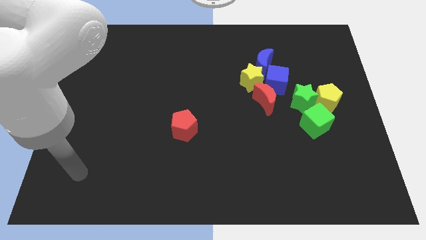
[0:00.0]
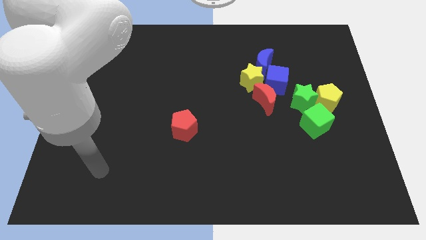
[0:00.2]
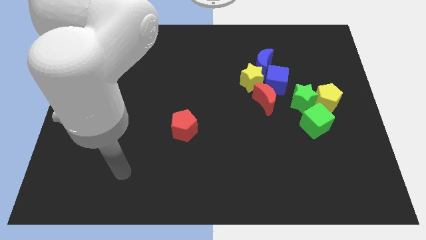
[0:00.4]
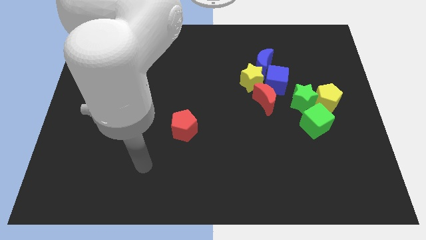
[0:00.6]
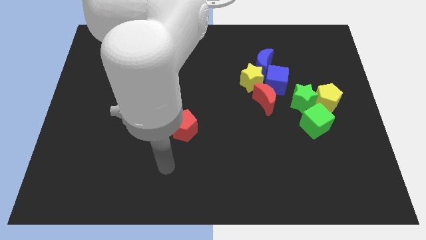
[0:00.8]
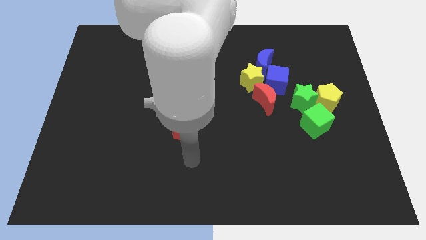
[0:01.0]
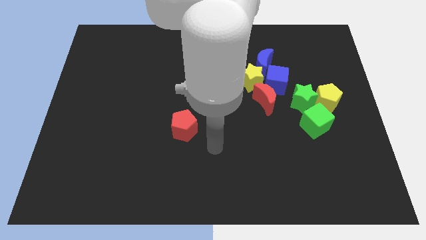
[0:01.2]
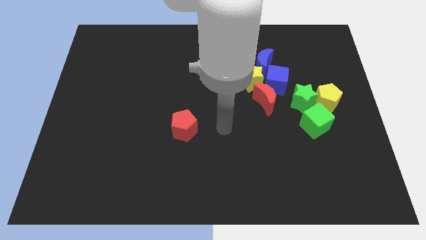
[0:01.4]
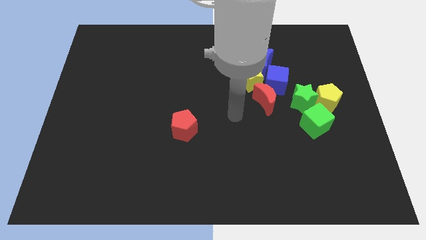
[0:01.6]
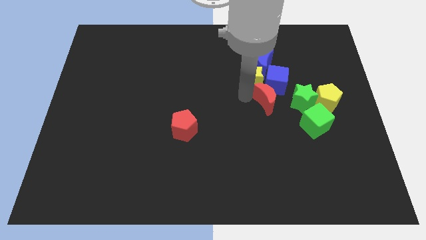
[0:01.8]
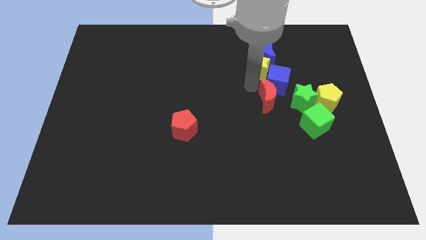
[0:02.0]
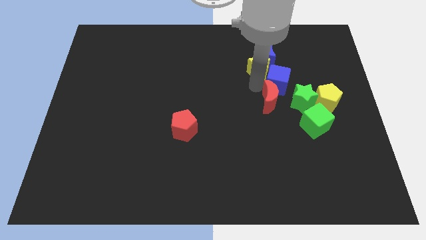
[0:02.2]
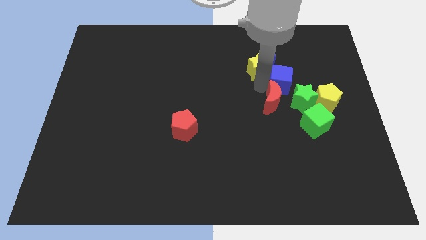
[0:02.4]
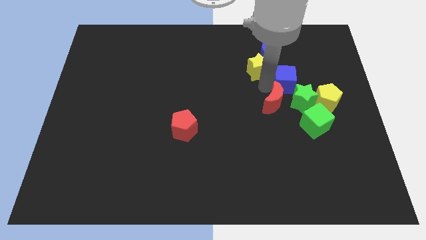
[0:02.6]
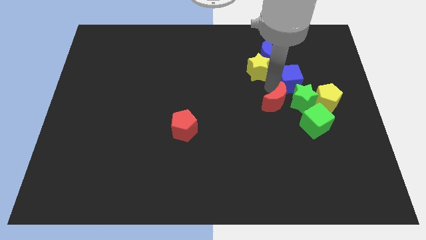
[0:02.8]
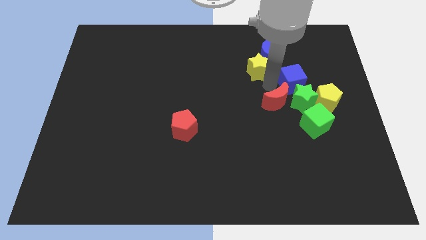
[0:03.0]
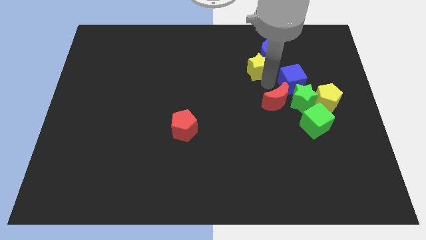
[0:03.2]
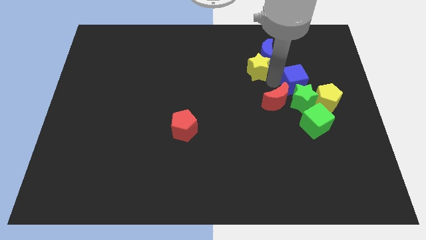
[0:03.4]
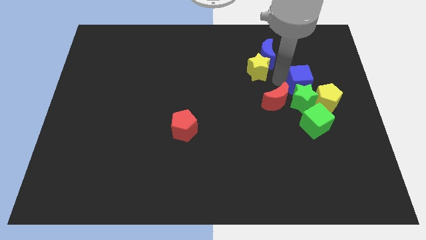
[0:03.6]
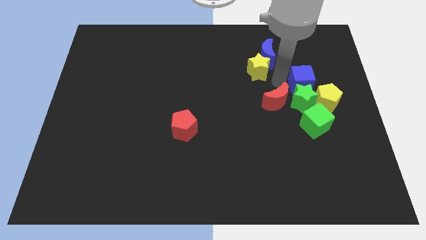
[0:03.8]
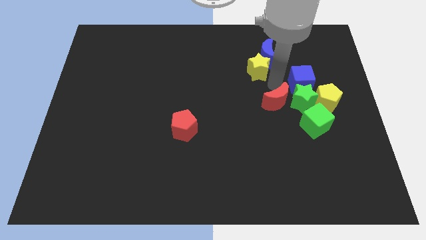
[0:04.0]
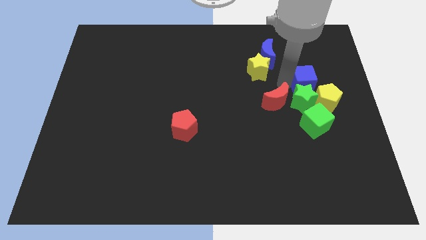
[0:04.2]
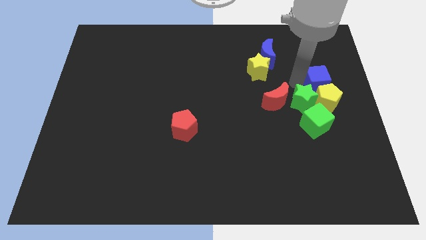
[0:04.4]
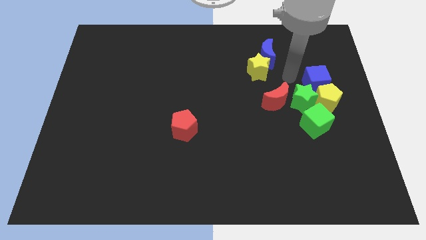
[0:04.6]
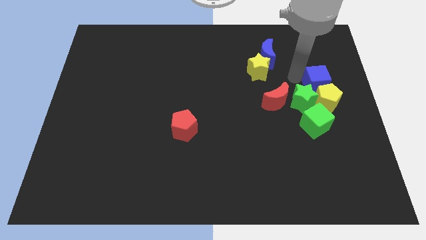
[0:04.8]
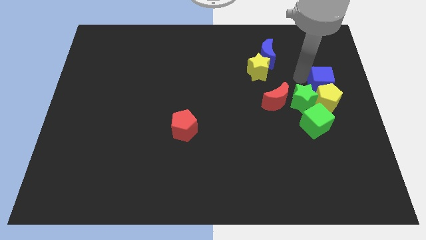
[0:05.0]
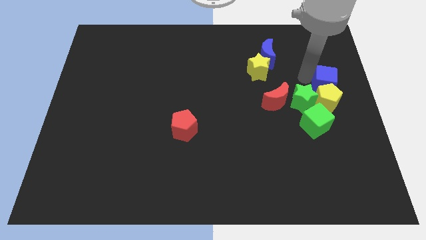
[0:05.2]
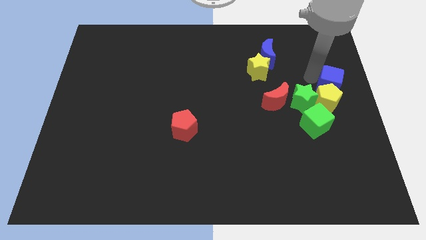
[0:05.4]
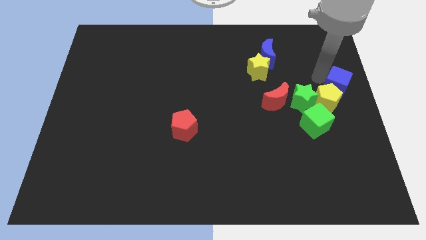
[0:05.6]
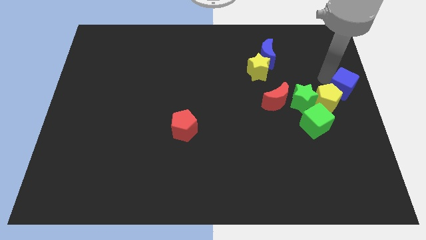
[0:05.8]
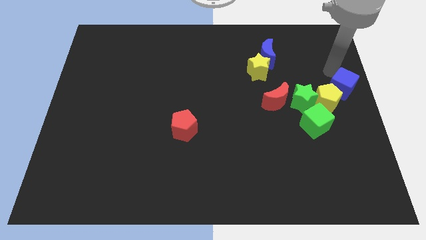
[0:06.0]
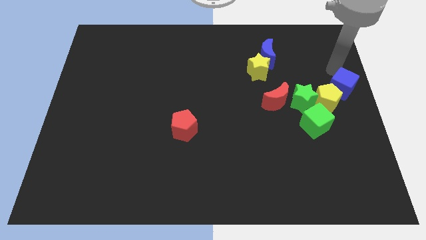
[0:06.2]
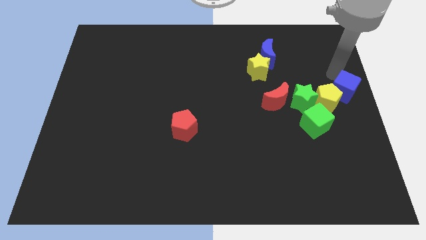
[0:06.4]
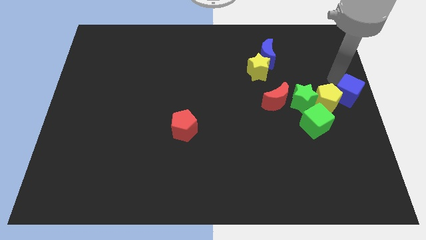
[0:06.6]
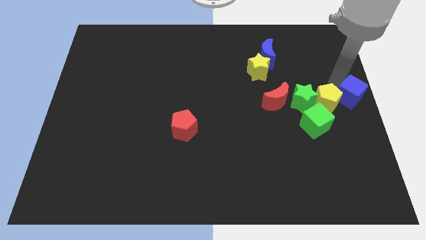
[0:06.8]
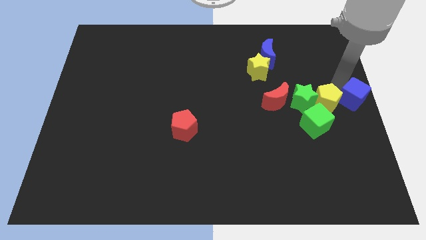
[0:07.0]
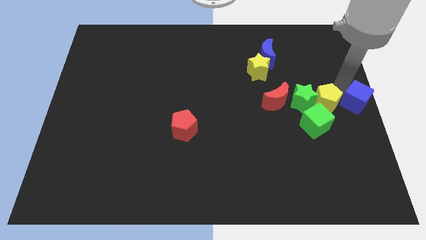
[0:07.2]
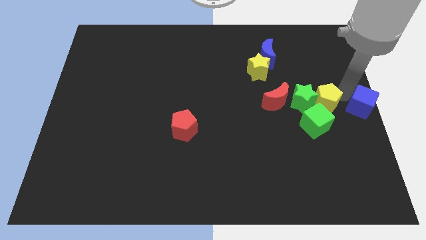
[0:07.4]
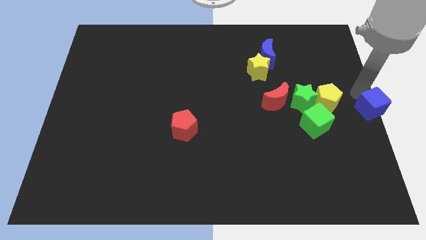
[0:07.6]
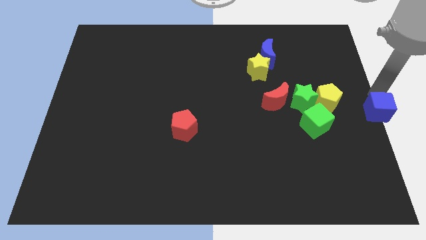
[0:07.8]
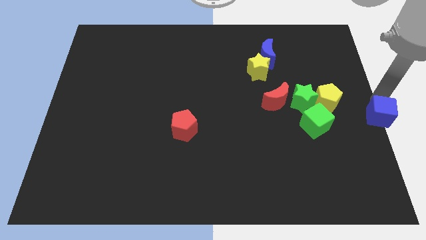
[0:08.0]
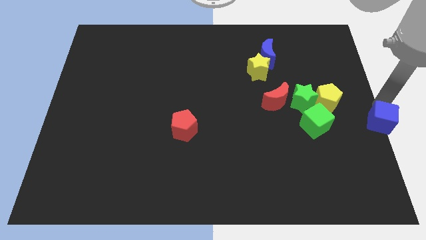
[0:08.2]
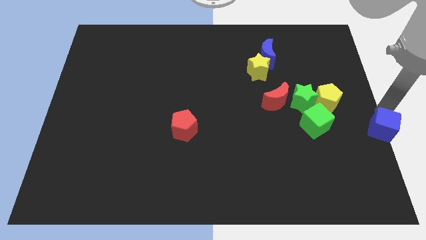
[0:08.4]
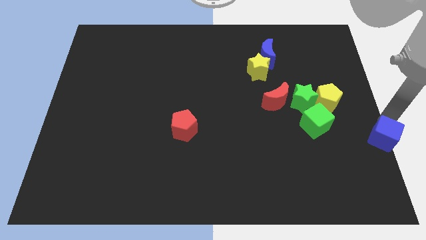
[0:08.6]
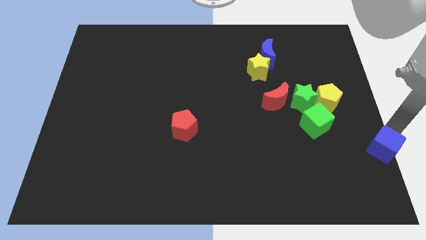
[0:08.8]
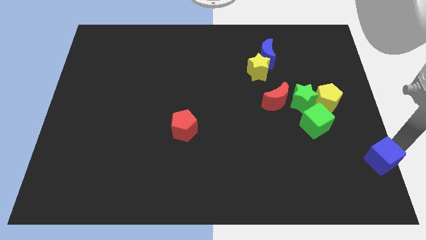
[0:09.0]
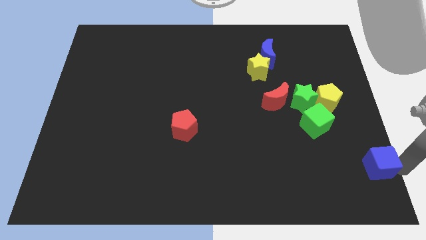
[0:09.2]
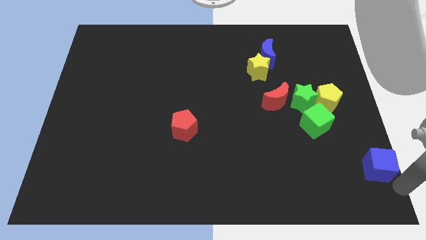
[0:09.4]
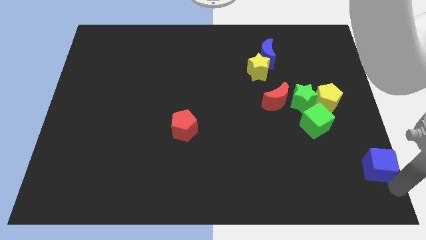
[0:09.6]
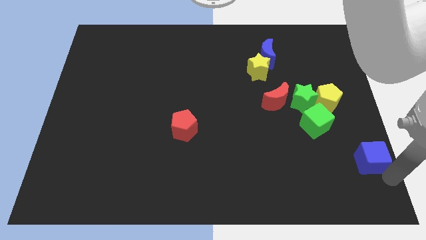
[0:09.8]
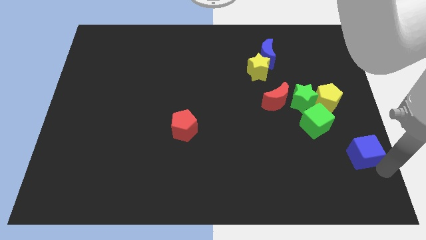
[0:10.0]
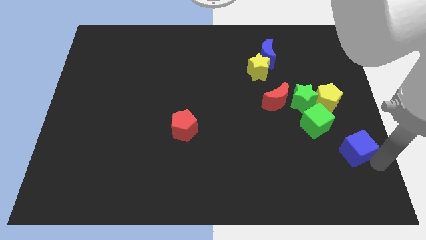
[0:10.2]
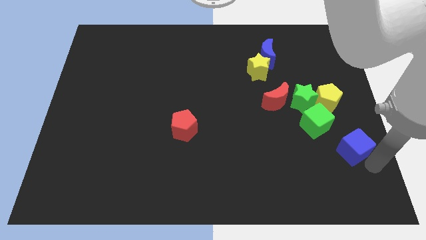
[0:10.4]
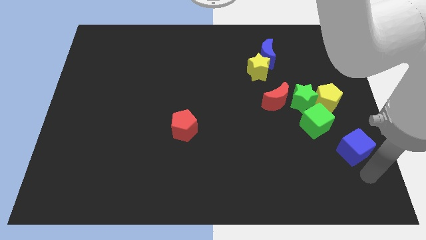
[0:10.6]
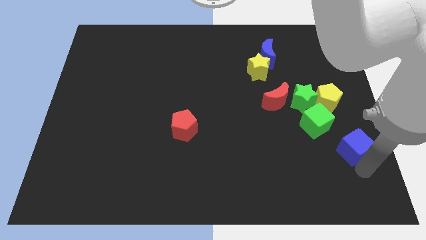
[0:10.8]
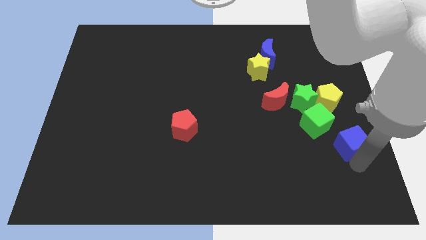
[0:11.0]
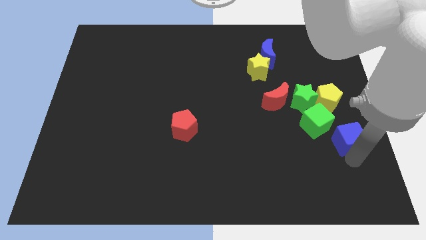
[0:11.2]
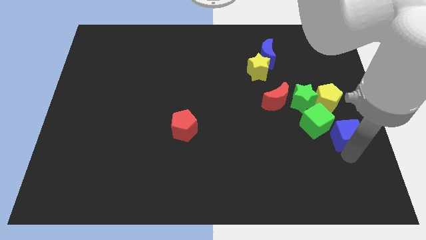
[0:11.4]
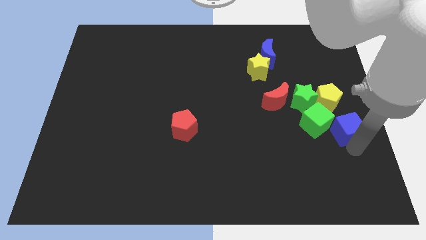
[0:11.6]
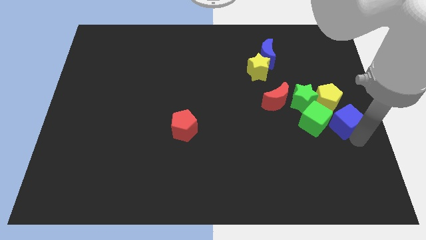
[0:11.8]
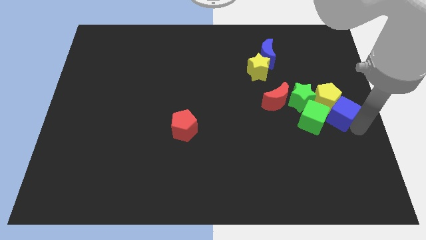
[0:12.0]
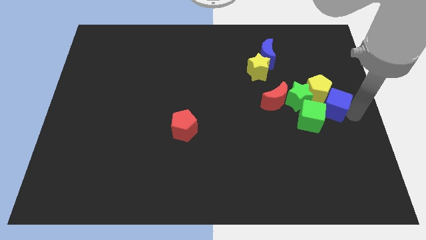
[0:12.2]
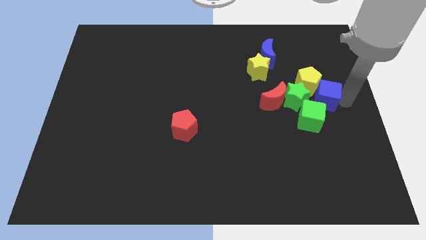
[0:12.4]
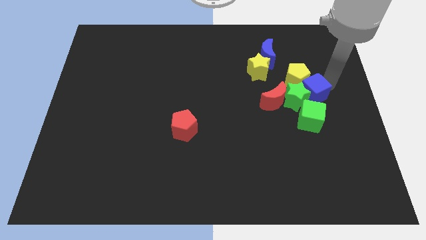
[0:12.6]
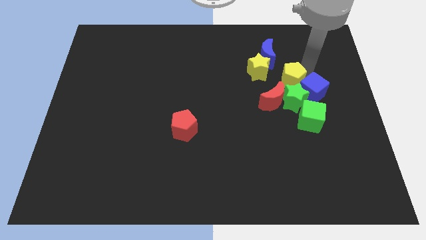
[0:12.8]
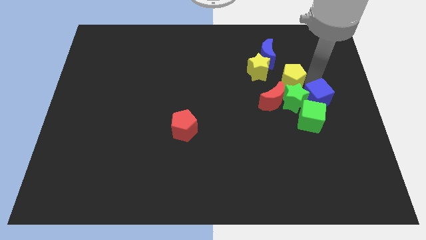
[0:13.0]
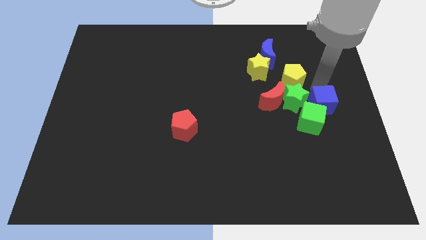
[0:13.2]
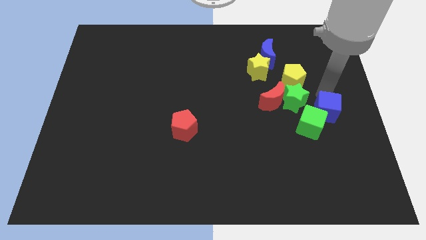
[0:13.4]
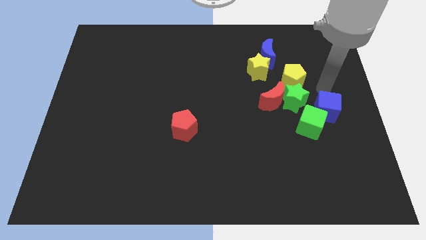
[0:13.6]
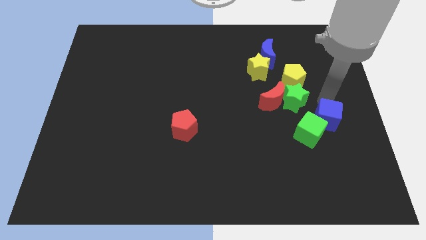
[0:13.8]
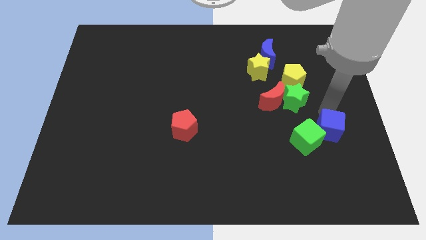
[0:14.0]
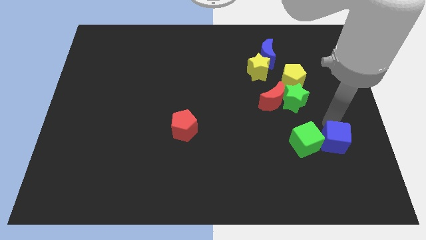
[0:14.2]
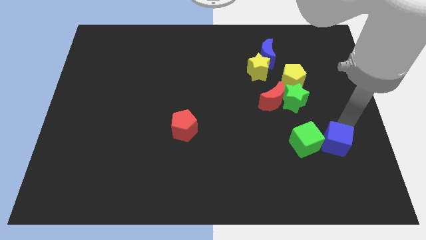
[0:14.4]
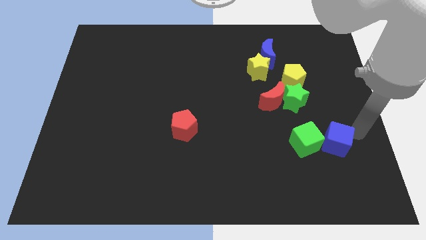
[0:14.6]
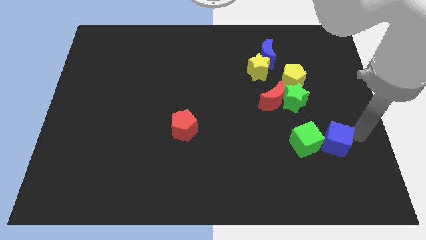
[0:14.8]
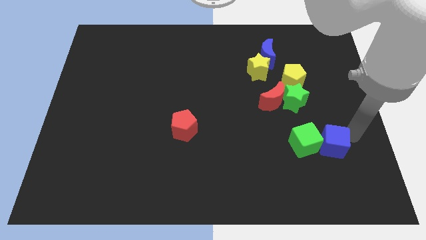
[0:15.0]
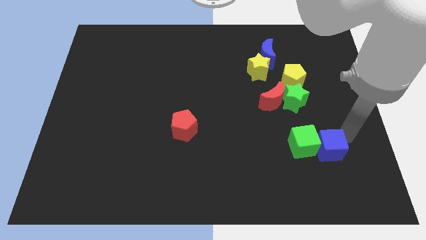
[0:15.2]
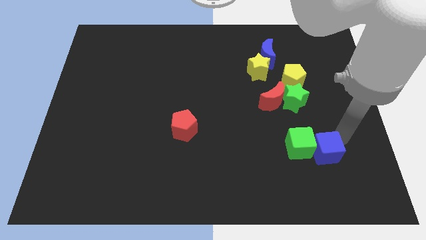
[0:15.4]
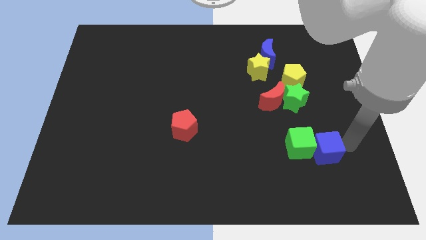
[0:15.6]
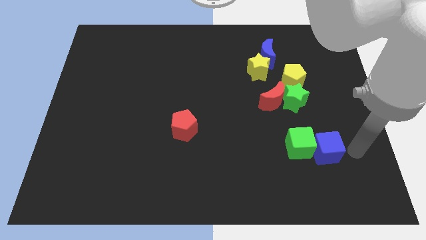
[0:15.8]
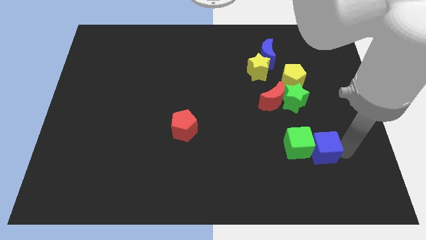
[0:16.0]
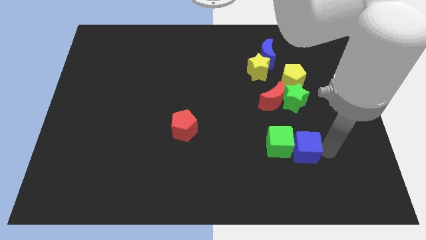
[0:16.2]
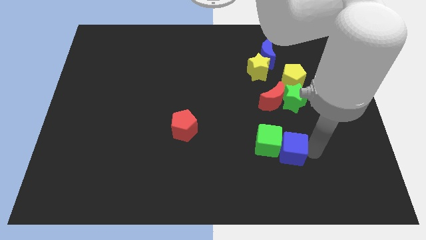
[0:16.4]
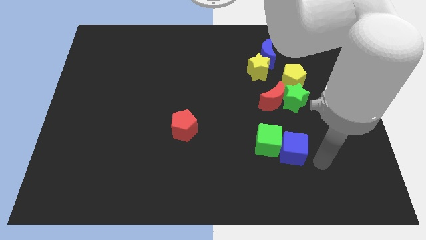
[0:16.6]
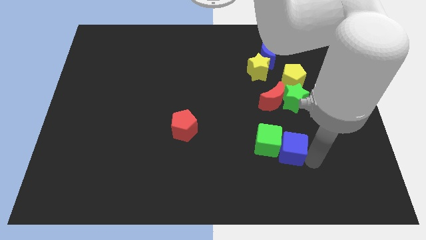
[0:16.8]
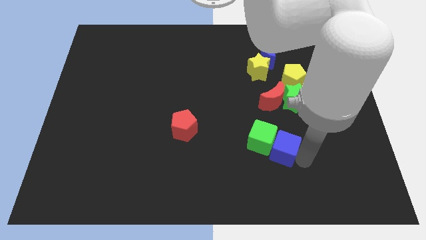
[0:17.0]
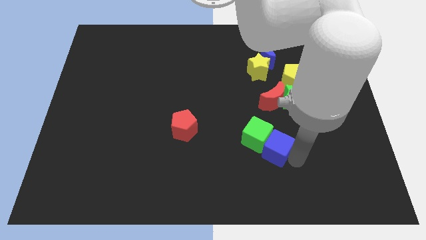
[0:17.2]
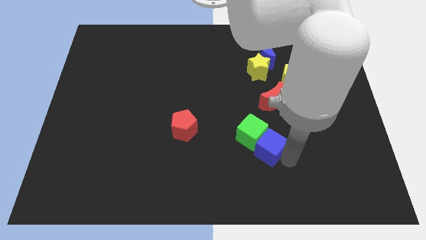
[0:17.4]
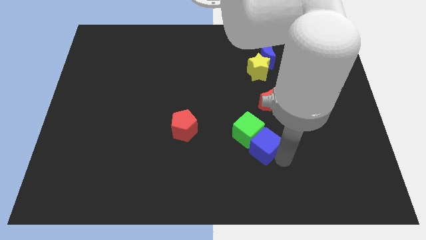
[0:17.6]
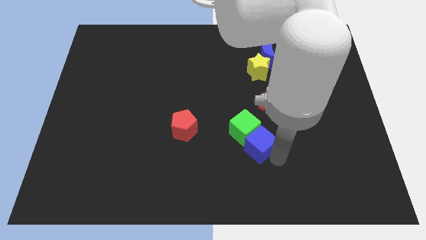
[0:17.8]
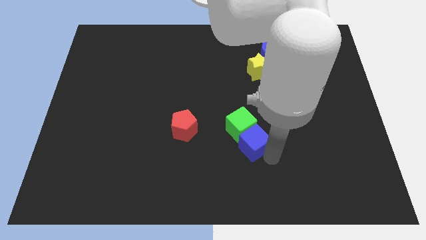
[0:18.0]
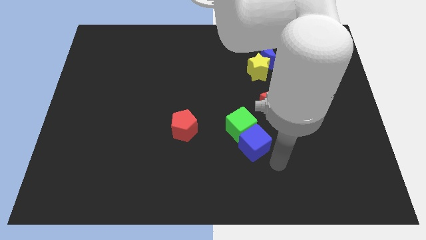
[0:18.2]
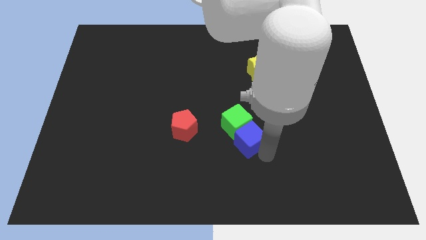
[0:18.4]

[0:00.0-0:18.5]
push the blue cube to the right of the red pentagon
